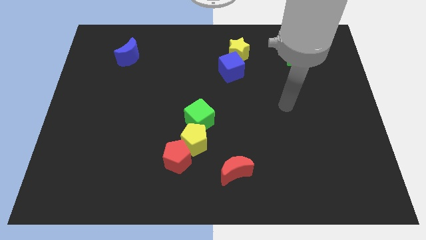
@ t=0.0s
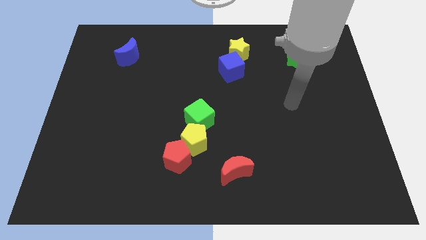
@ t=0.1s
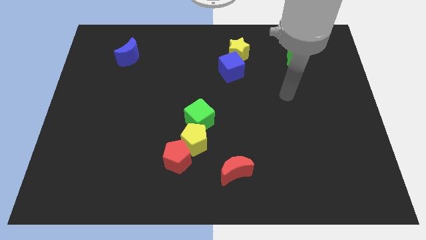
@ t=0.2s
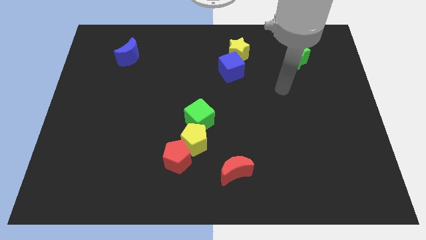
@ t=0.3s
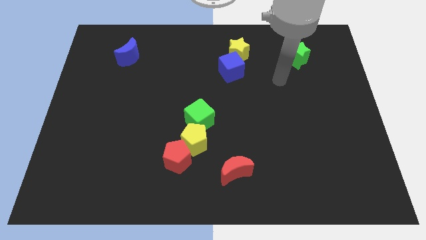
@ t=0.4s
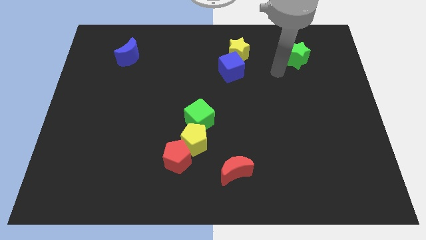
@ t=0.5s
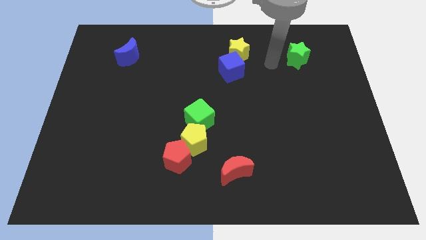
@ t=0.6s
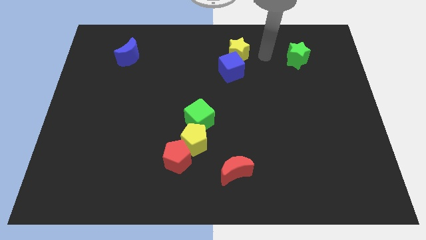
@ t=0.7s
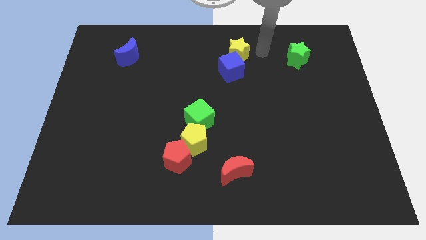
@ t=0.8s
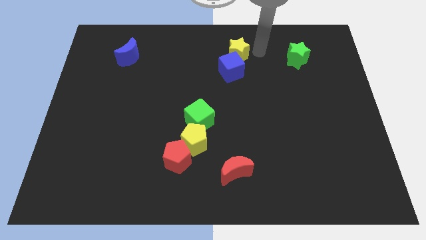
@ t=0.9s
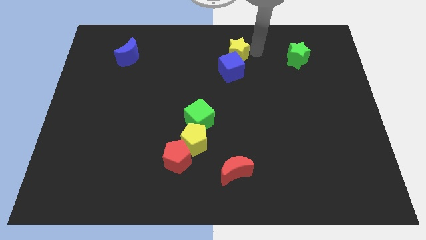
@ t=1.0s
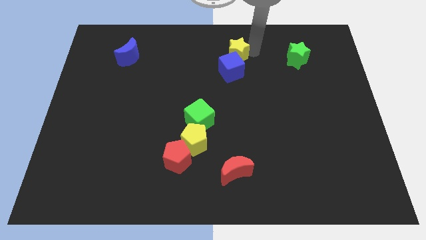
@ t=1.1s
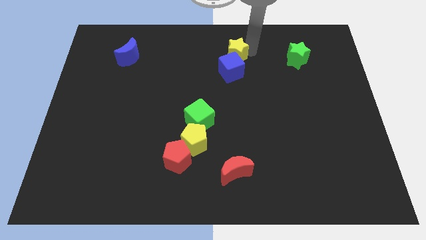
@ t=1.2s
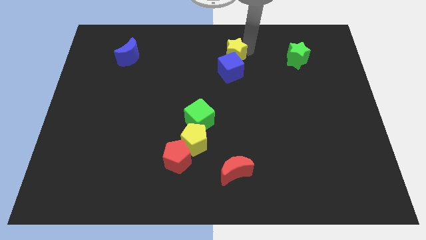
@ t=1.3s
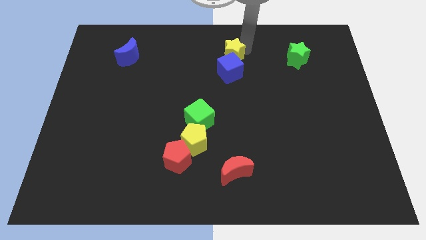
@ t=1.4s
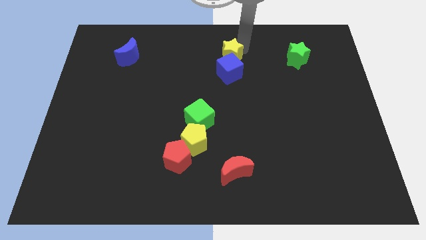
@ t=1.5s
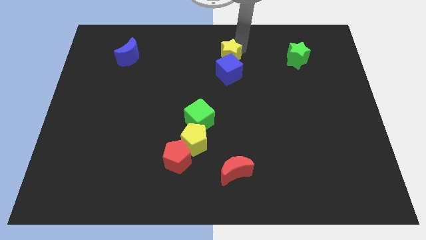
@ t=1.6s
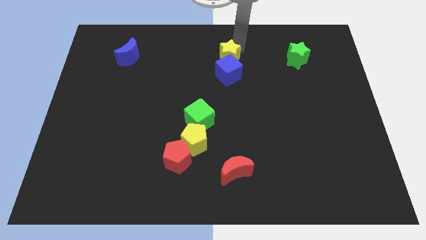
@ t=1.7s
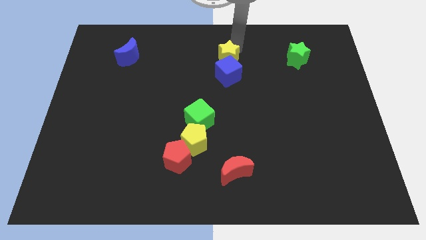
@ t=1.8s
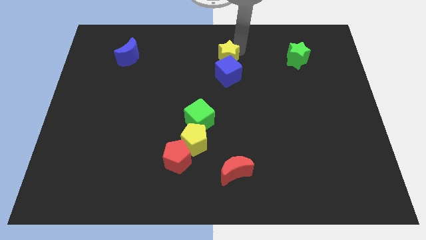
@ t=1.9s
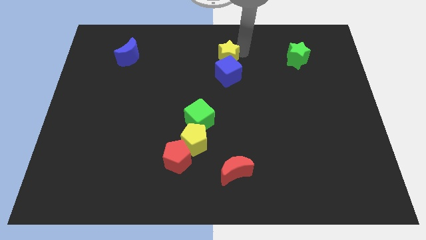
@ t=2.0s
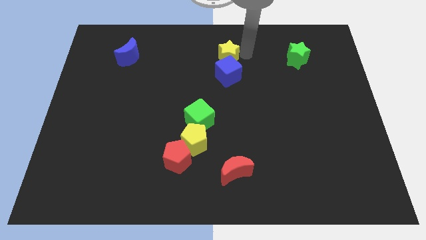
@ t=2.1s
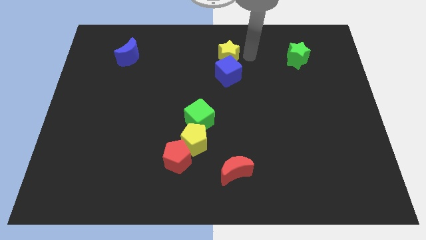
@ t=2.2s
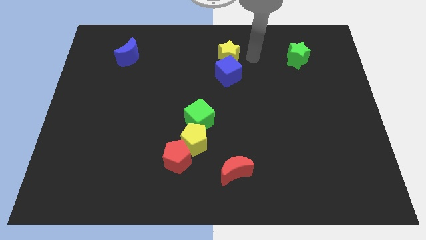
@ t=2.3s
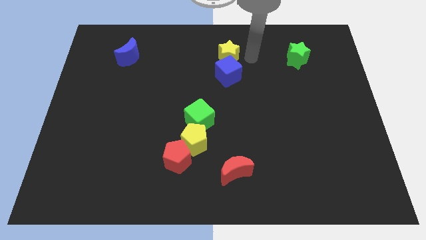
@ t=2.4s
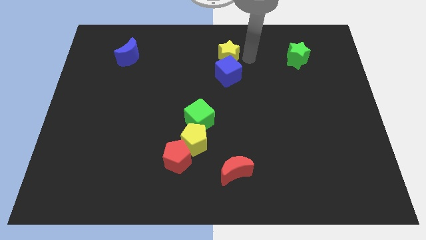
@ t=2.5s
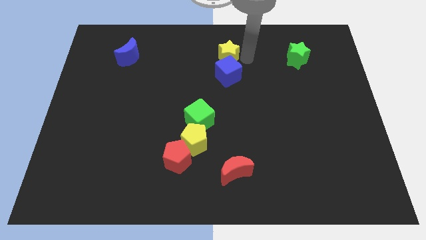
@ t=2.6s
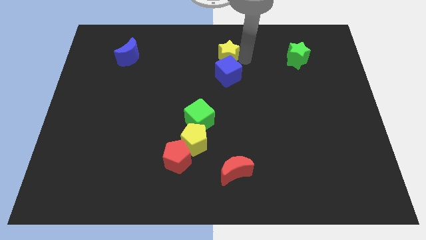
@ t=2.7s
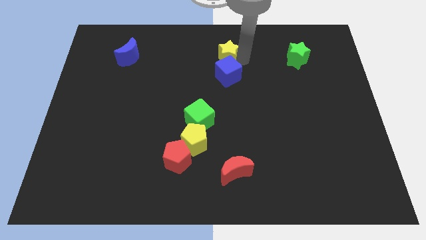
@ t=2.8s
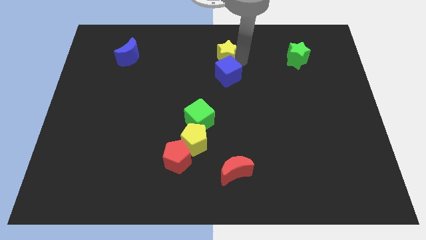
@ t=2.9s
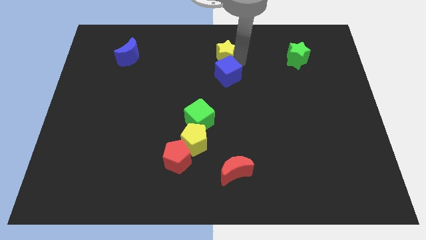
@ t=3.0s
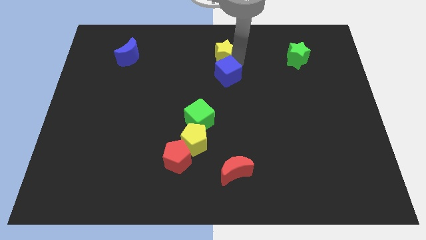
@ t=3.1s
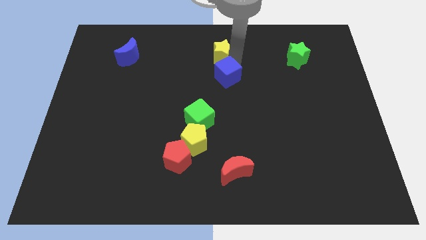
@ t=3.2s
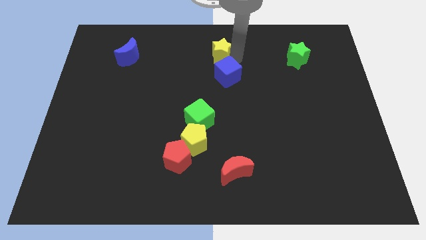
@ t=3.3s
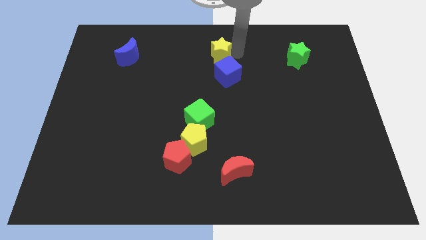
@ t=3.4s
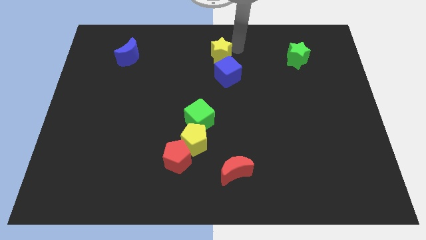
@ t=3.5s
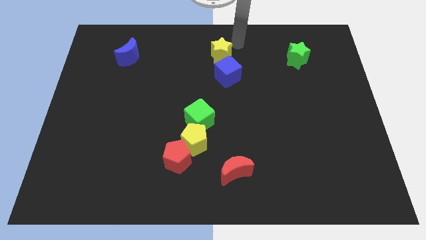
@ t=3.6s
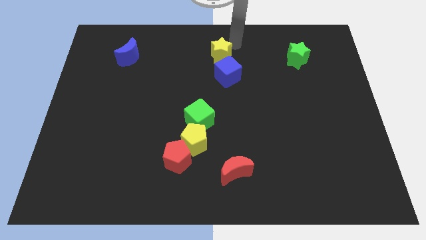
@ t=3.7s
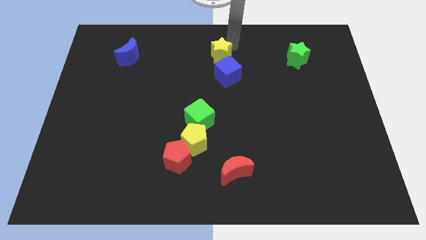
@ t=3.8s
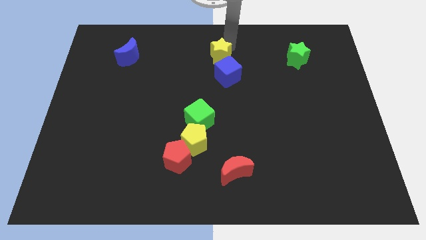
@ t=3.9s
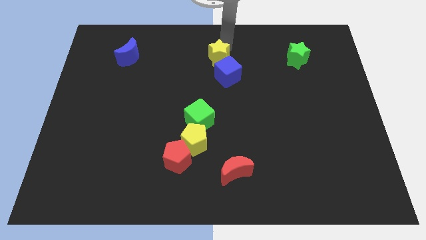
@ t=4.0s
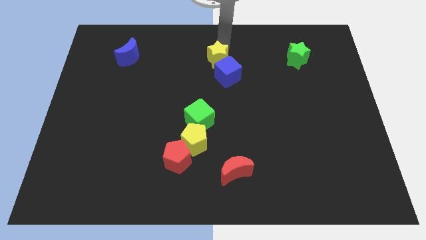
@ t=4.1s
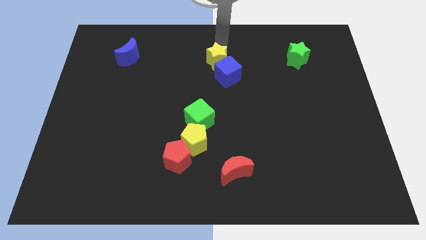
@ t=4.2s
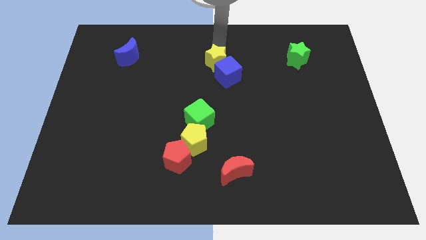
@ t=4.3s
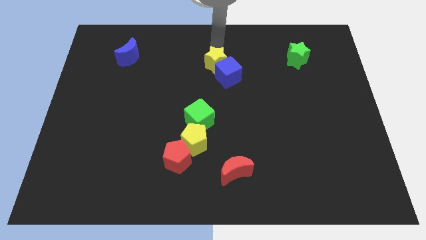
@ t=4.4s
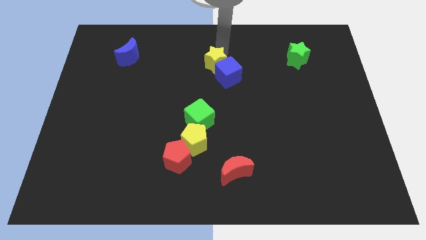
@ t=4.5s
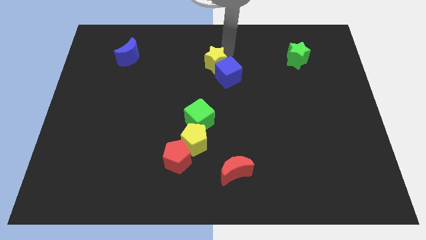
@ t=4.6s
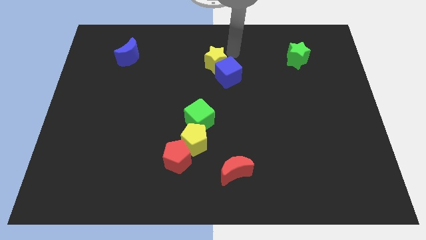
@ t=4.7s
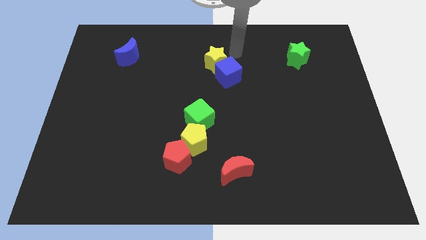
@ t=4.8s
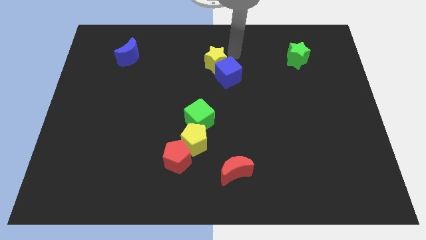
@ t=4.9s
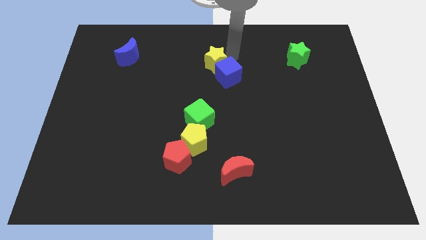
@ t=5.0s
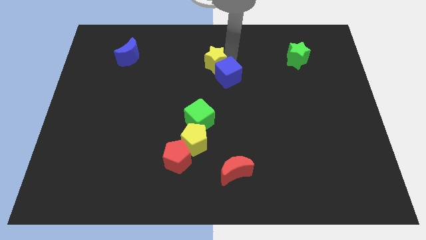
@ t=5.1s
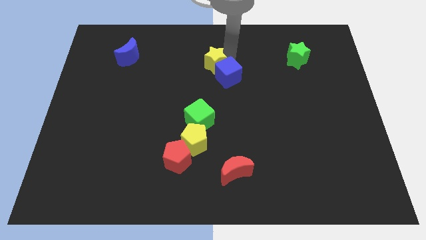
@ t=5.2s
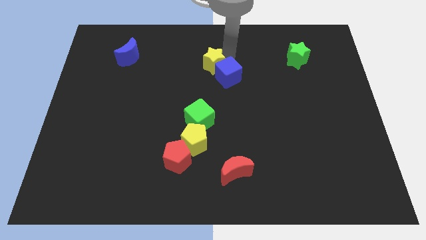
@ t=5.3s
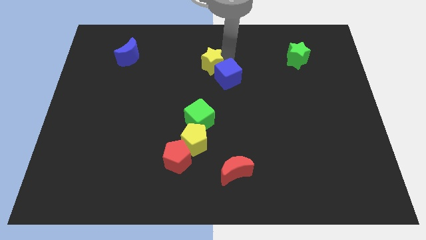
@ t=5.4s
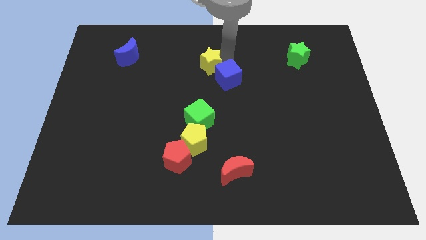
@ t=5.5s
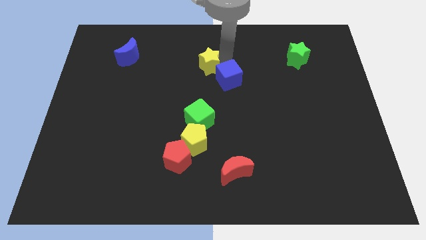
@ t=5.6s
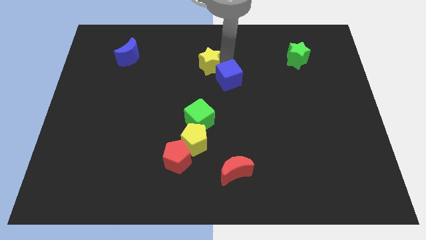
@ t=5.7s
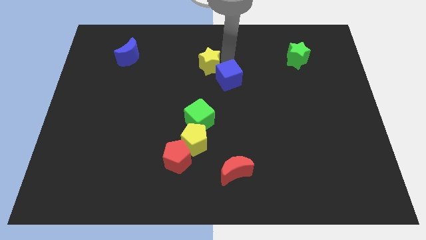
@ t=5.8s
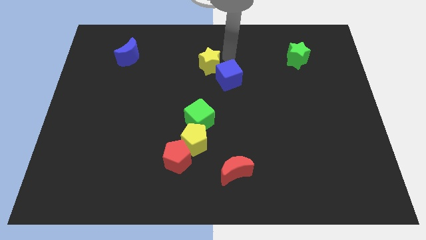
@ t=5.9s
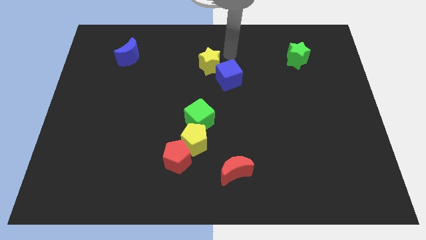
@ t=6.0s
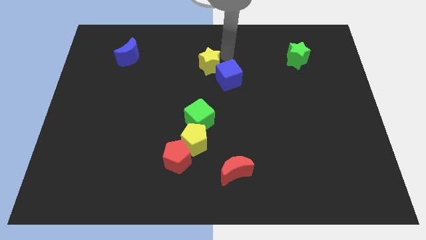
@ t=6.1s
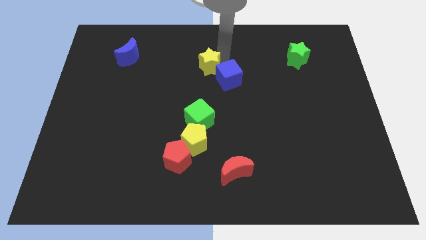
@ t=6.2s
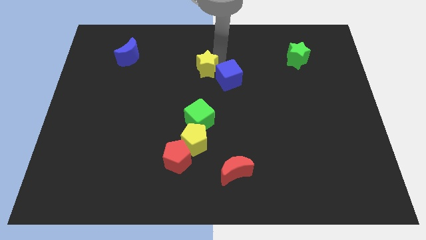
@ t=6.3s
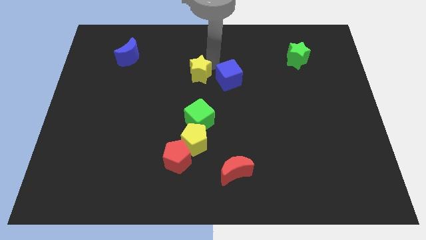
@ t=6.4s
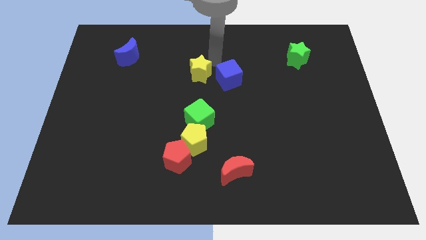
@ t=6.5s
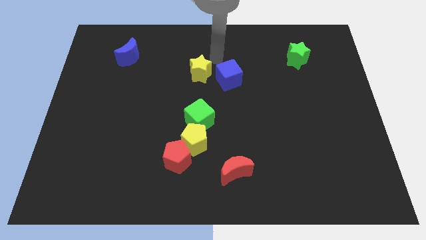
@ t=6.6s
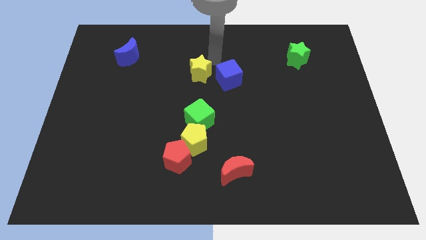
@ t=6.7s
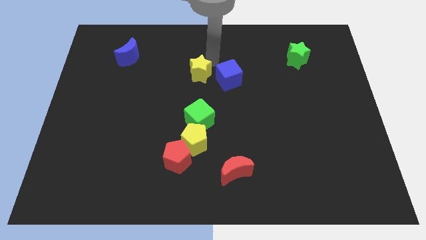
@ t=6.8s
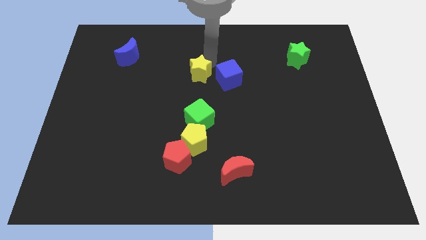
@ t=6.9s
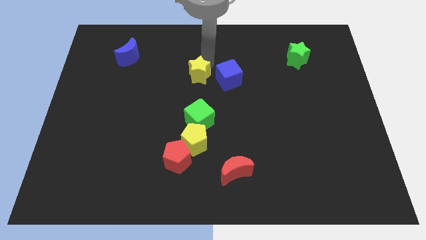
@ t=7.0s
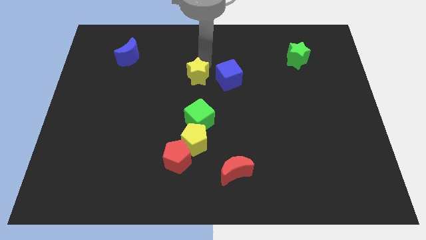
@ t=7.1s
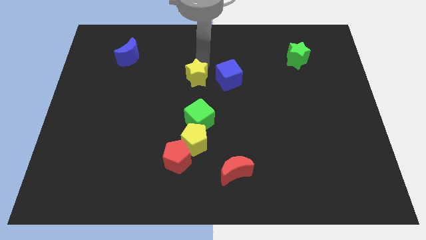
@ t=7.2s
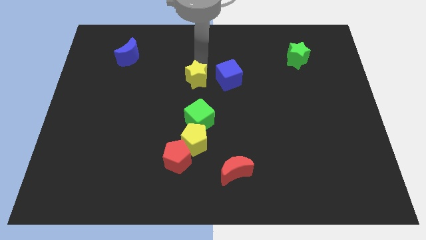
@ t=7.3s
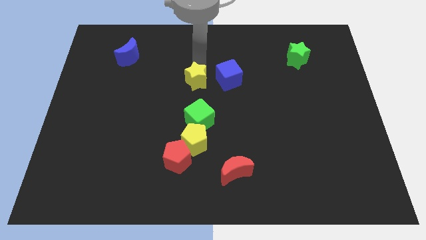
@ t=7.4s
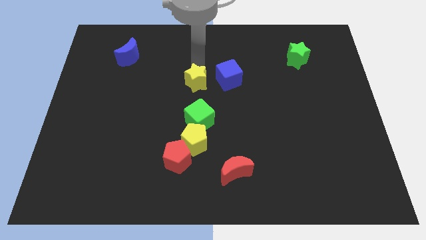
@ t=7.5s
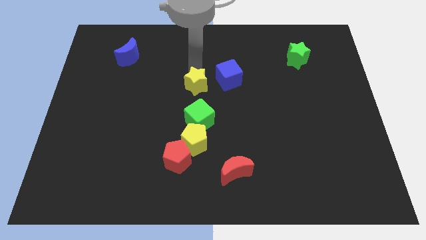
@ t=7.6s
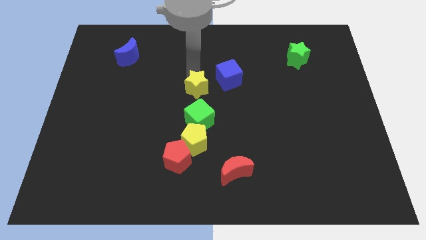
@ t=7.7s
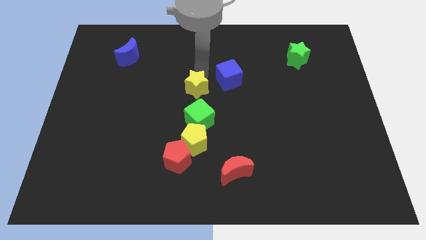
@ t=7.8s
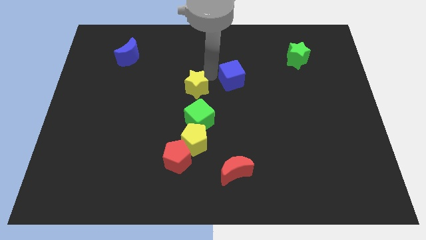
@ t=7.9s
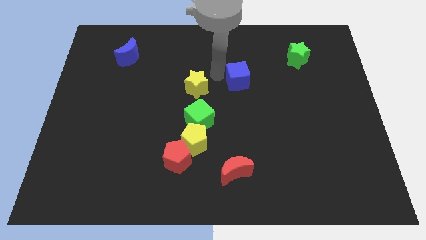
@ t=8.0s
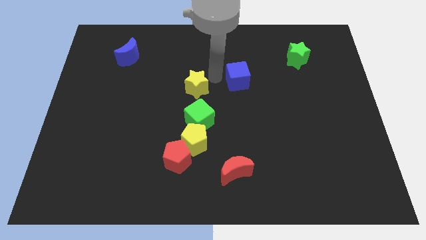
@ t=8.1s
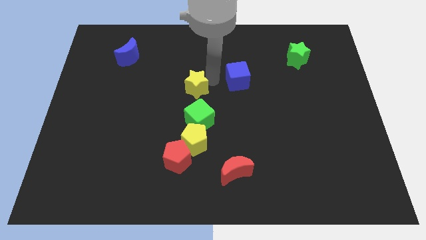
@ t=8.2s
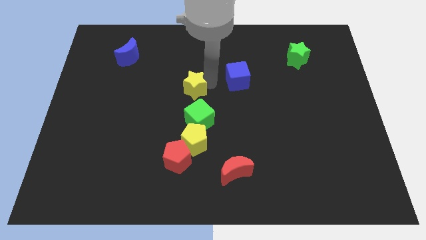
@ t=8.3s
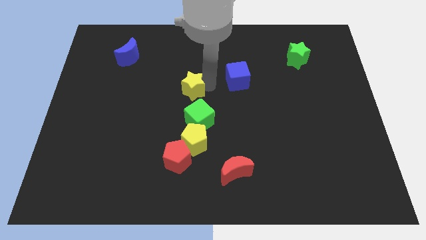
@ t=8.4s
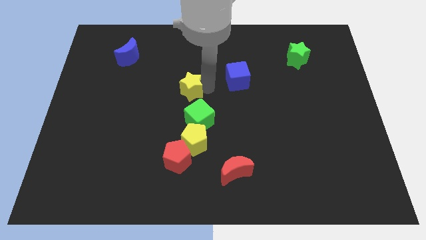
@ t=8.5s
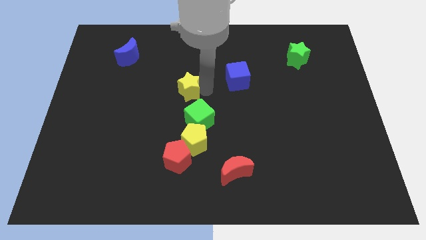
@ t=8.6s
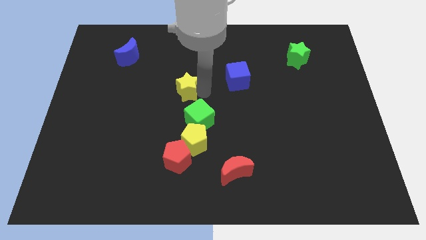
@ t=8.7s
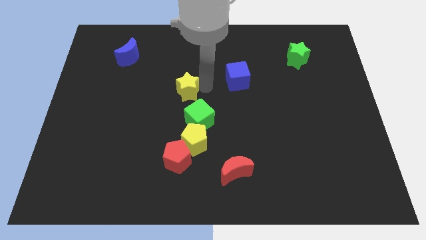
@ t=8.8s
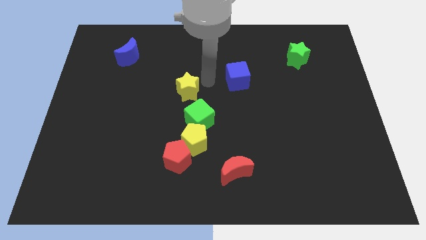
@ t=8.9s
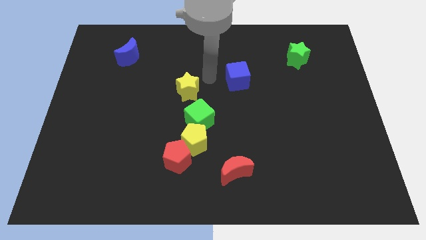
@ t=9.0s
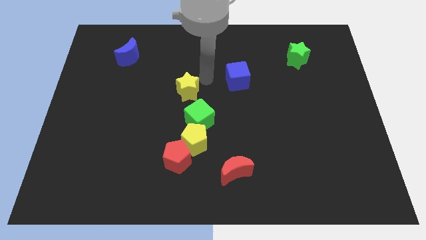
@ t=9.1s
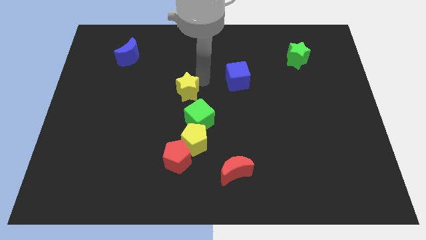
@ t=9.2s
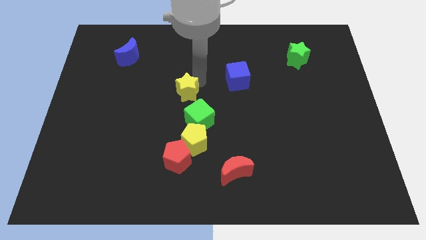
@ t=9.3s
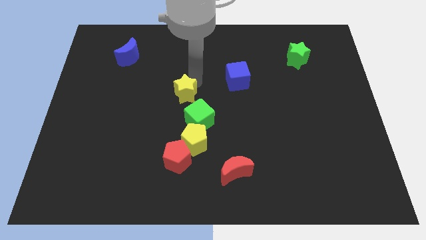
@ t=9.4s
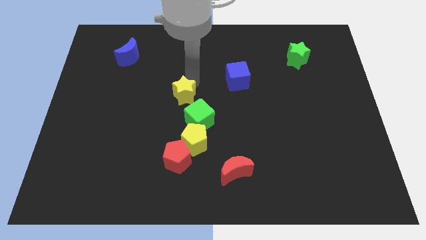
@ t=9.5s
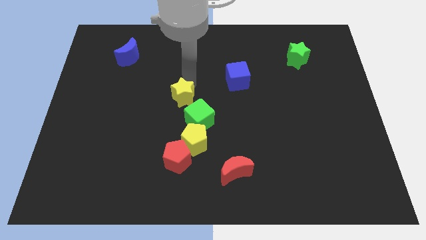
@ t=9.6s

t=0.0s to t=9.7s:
push the yellow star down and then to the left
